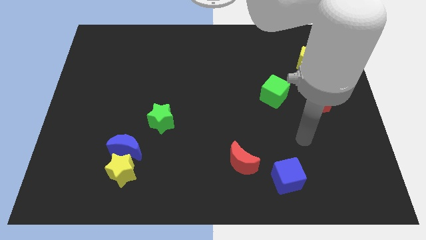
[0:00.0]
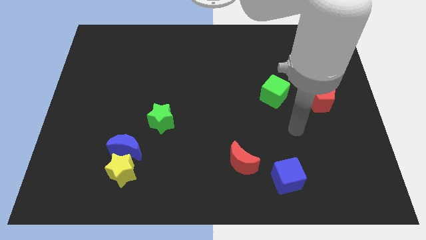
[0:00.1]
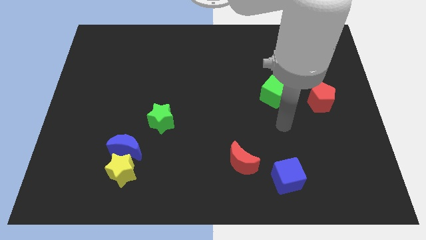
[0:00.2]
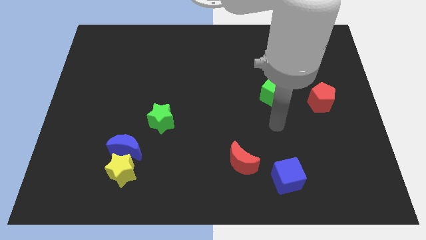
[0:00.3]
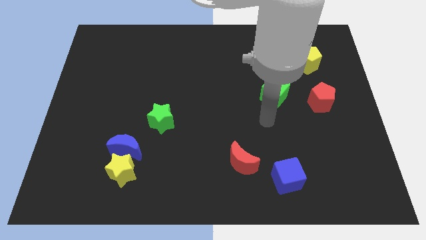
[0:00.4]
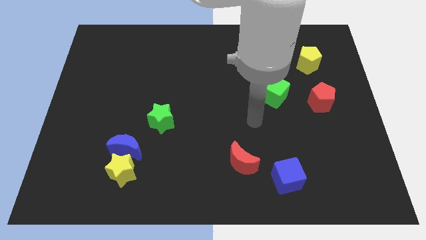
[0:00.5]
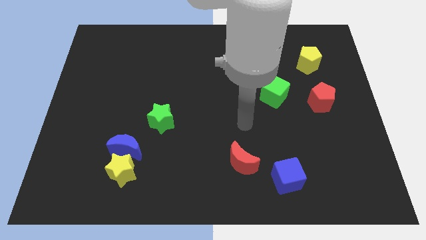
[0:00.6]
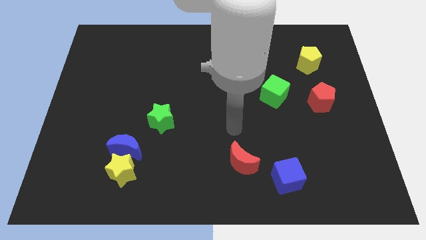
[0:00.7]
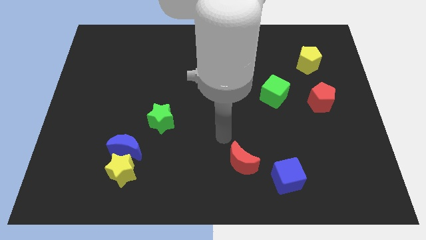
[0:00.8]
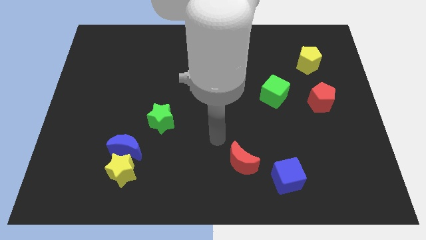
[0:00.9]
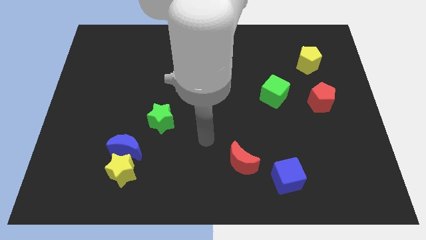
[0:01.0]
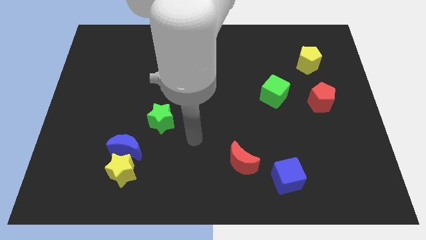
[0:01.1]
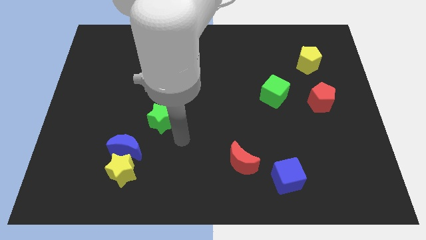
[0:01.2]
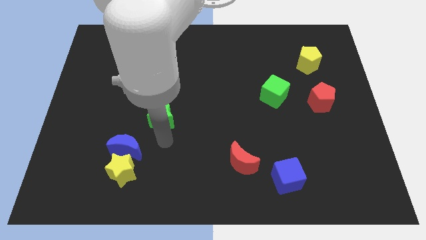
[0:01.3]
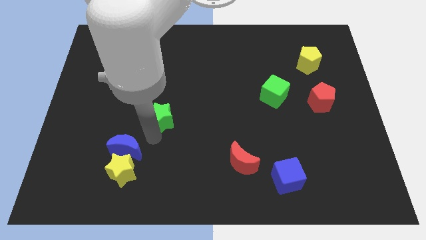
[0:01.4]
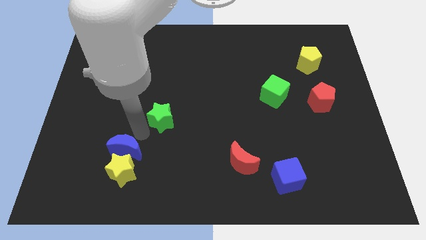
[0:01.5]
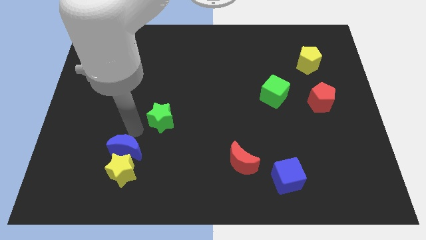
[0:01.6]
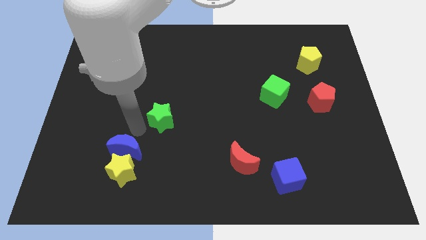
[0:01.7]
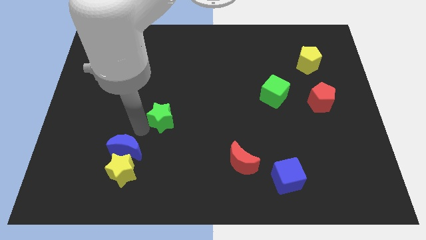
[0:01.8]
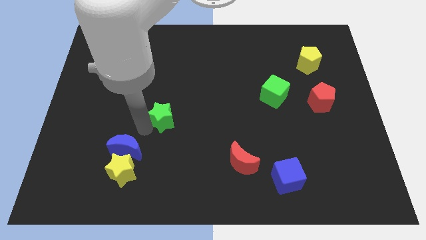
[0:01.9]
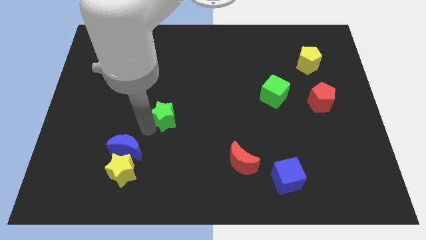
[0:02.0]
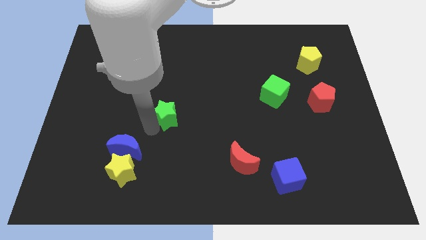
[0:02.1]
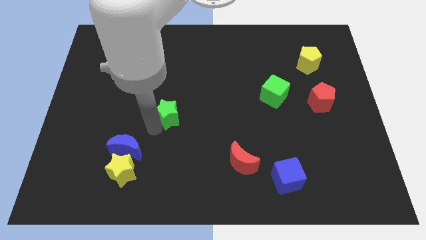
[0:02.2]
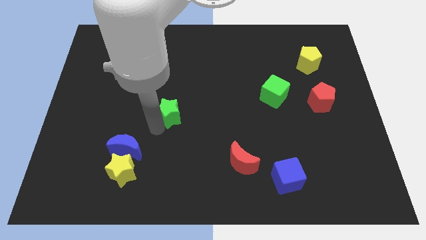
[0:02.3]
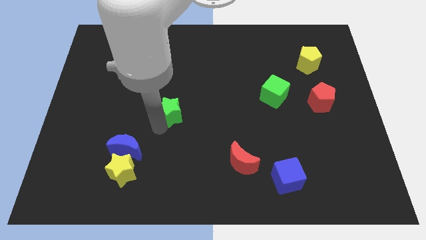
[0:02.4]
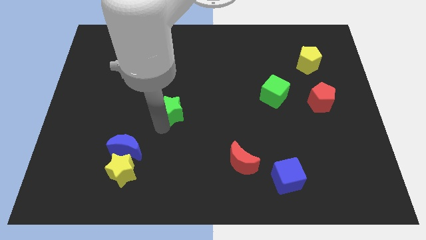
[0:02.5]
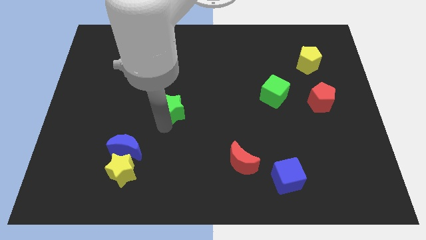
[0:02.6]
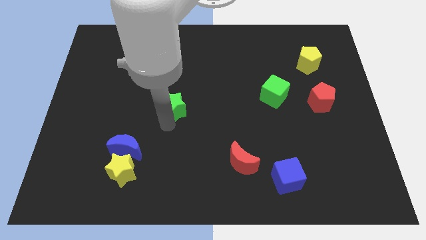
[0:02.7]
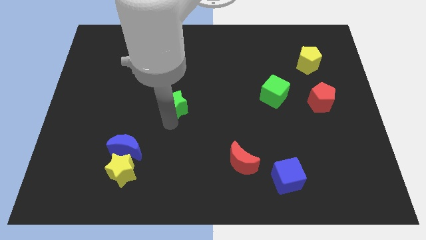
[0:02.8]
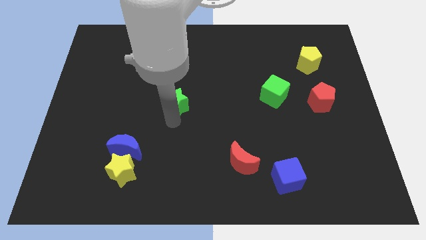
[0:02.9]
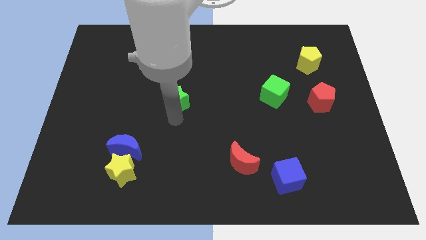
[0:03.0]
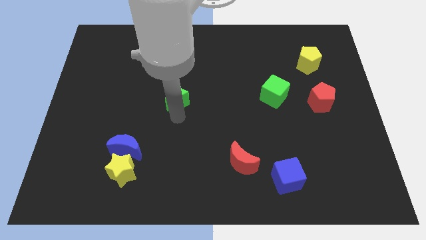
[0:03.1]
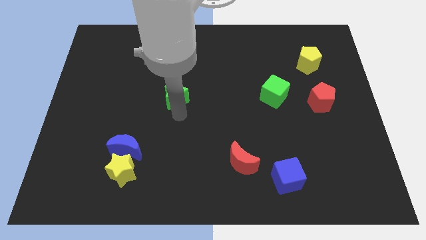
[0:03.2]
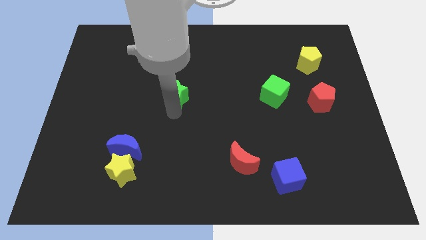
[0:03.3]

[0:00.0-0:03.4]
slide the green star a little upwards and right

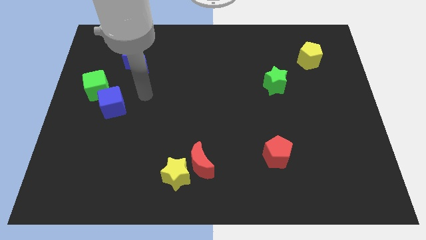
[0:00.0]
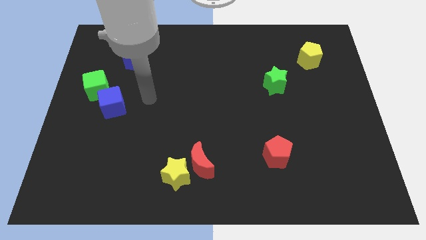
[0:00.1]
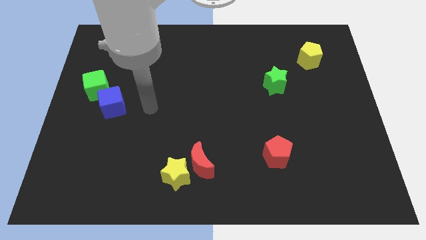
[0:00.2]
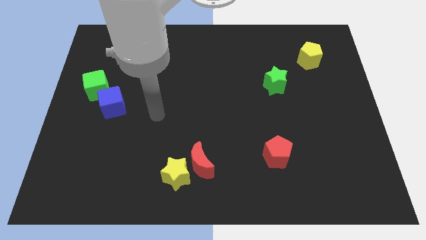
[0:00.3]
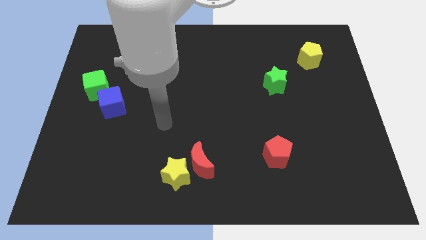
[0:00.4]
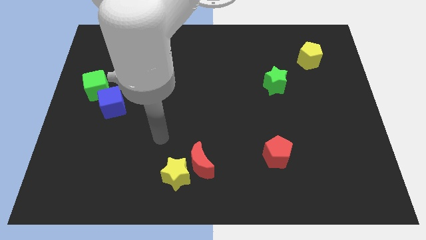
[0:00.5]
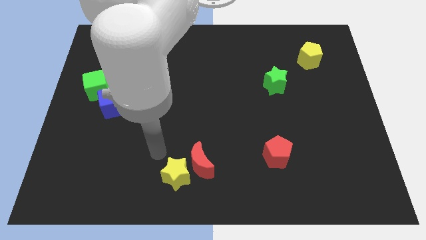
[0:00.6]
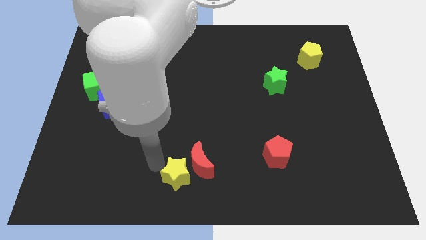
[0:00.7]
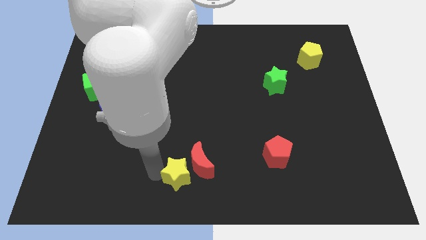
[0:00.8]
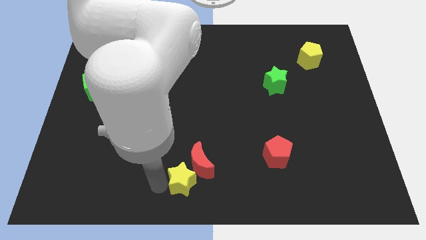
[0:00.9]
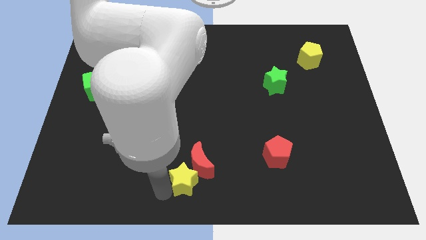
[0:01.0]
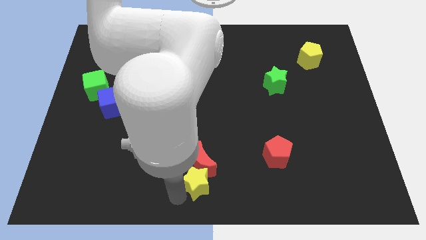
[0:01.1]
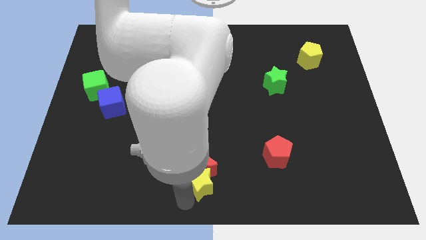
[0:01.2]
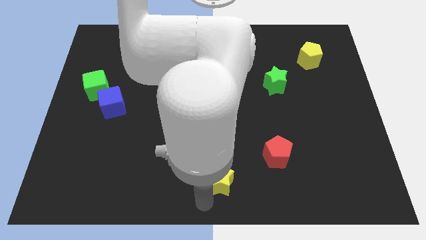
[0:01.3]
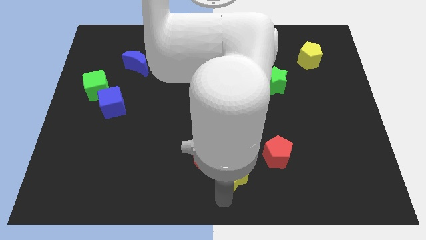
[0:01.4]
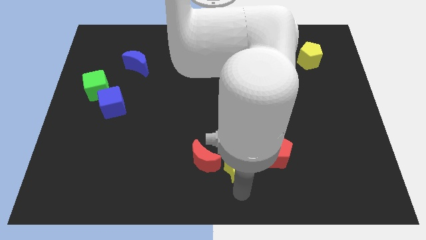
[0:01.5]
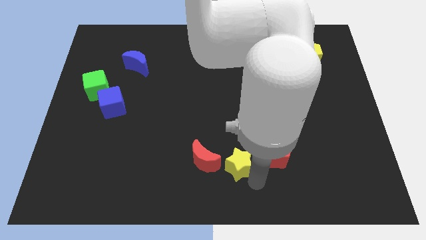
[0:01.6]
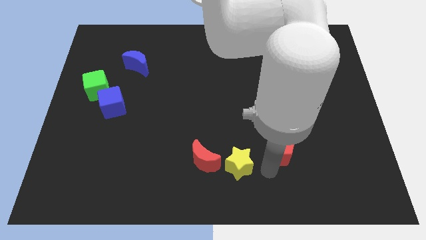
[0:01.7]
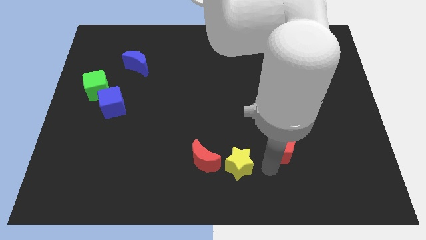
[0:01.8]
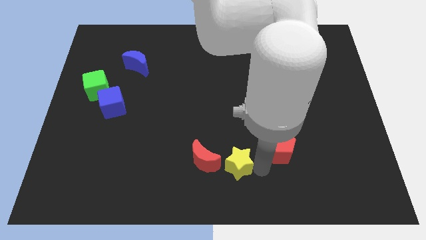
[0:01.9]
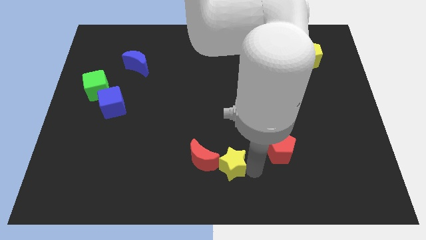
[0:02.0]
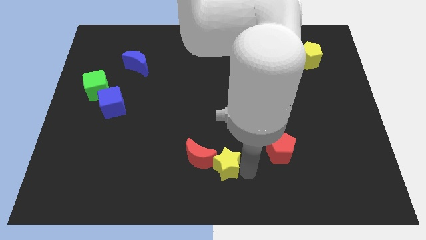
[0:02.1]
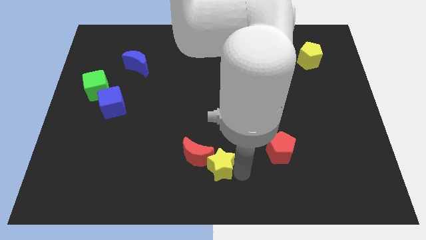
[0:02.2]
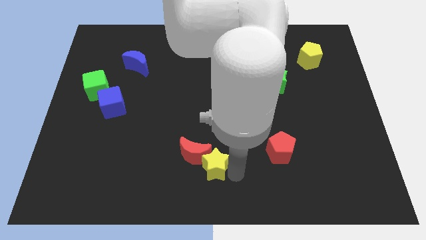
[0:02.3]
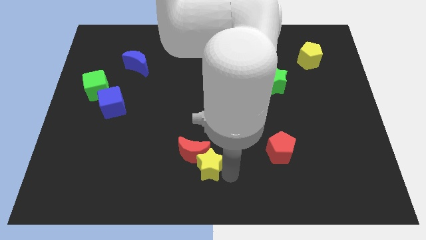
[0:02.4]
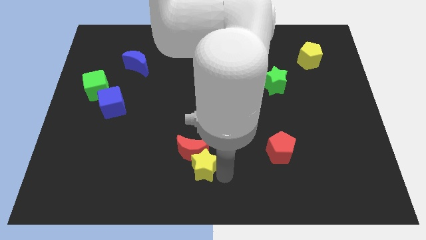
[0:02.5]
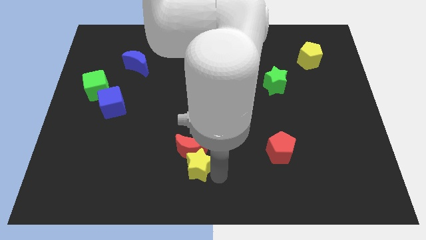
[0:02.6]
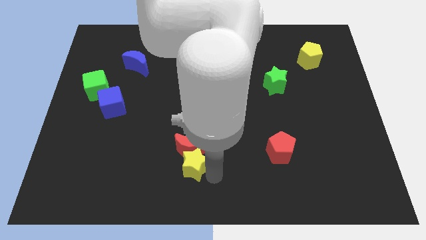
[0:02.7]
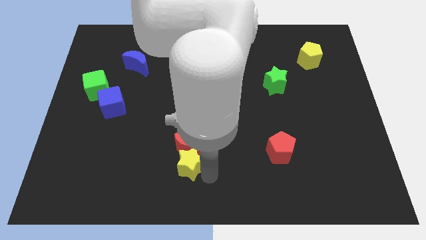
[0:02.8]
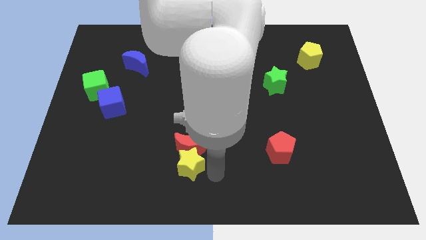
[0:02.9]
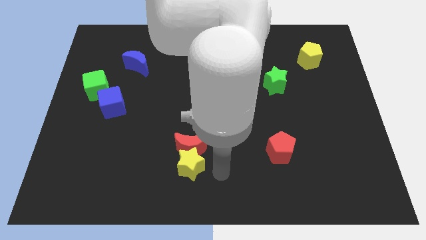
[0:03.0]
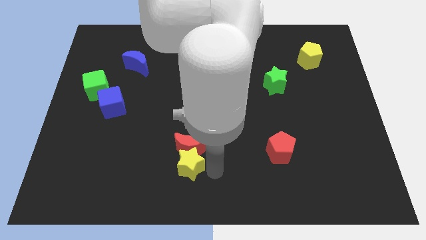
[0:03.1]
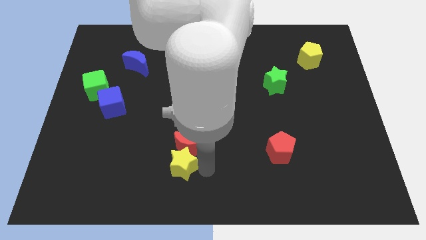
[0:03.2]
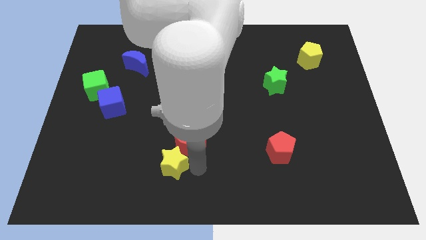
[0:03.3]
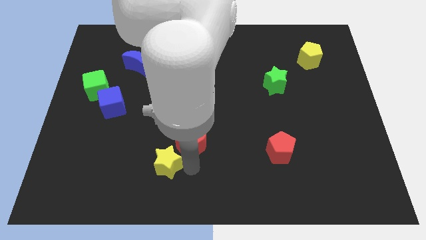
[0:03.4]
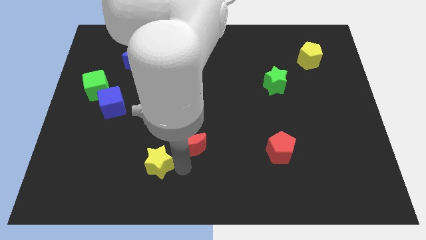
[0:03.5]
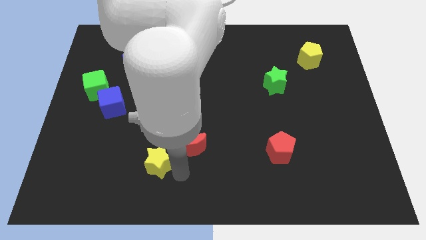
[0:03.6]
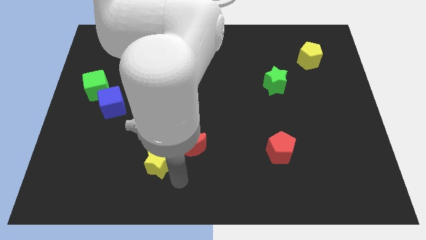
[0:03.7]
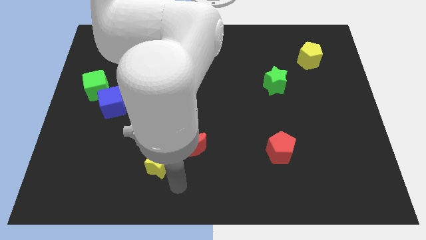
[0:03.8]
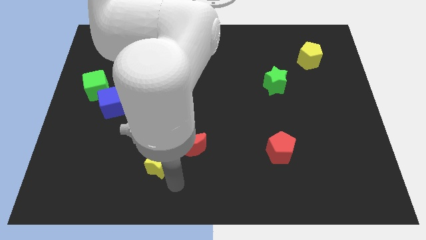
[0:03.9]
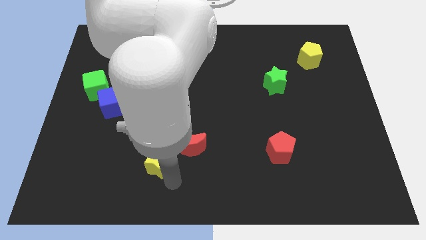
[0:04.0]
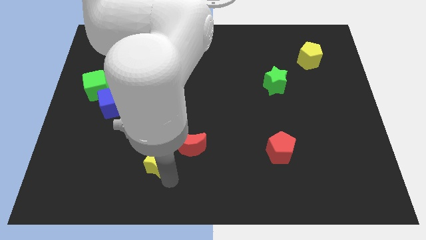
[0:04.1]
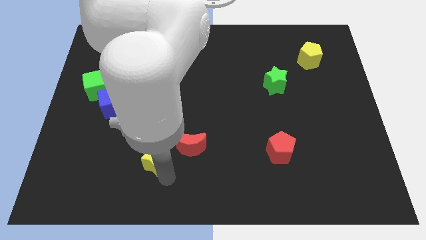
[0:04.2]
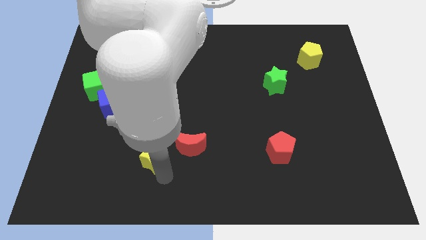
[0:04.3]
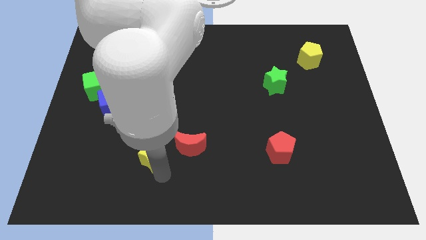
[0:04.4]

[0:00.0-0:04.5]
push the yellow star up and to the left a little

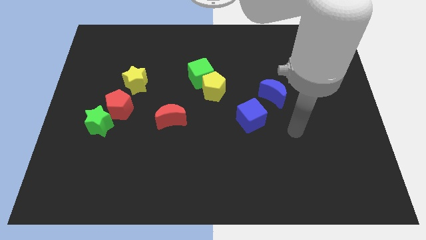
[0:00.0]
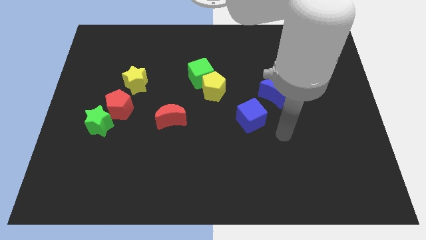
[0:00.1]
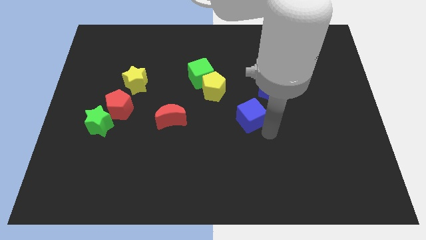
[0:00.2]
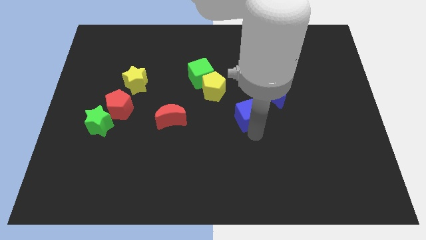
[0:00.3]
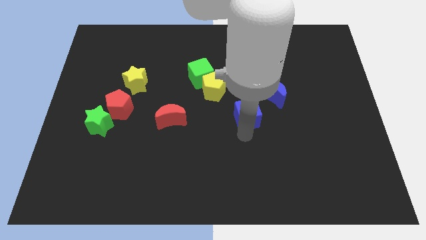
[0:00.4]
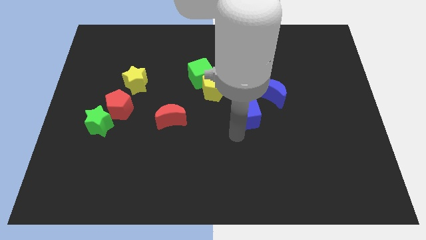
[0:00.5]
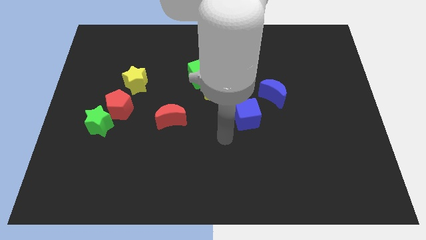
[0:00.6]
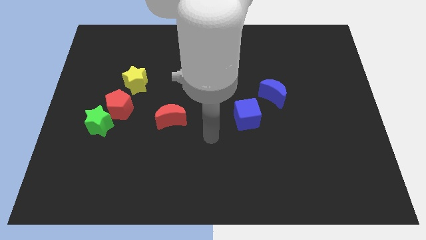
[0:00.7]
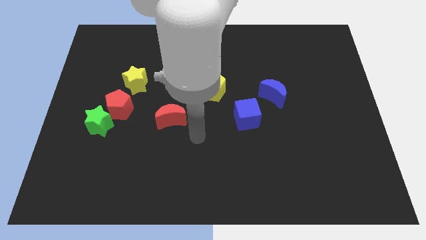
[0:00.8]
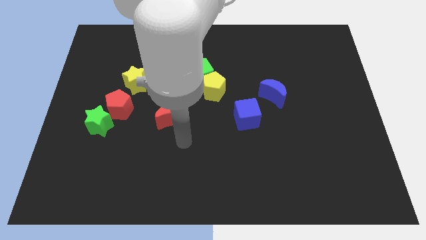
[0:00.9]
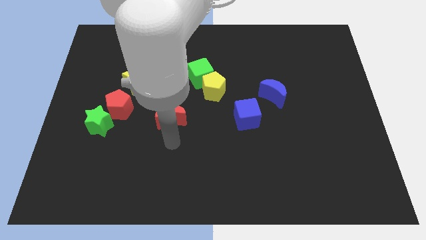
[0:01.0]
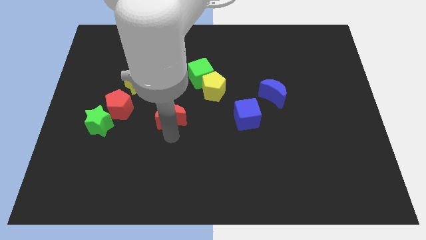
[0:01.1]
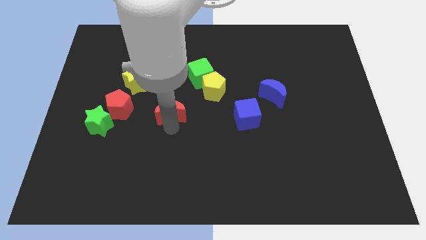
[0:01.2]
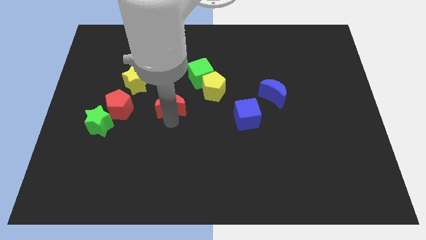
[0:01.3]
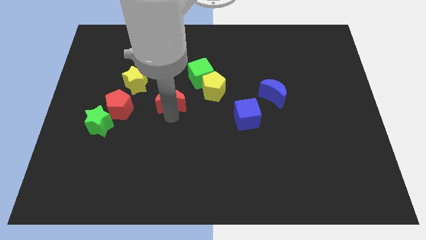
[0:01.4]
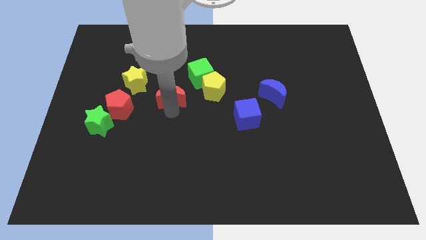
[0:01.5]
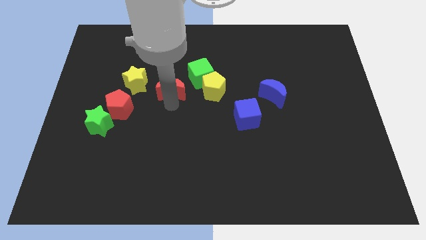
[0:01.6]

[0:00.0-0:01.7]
push the red moon a little bit up
